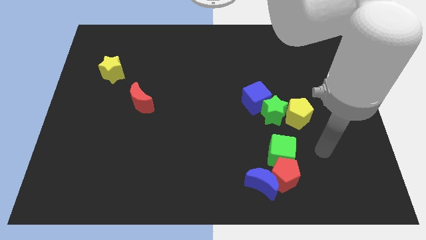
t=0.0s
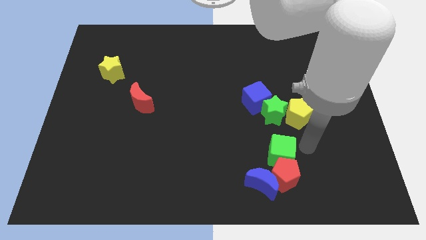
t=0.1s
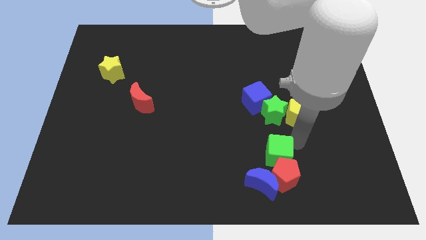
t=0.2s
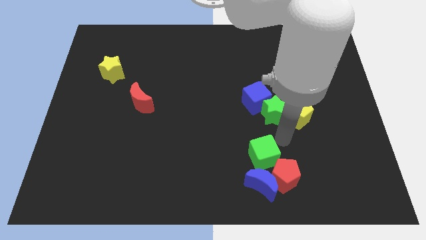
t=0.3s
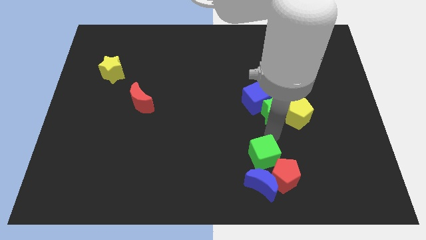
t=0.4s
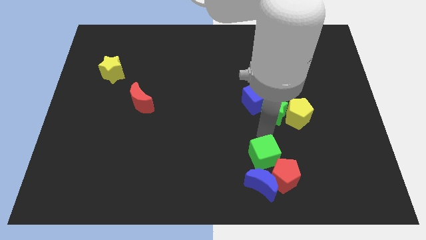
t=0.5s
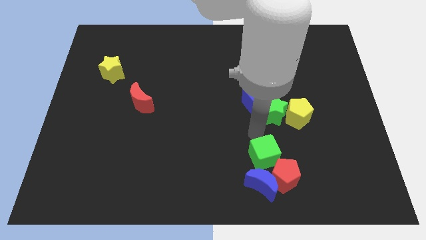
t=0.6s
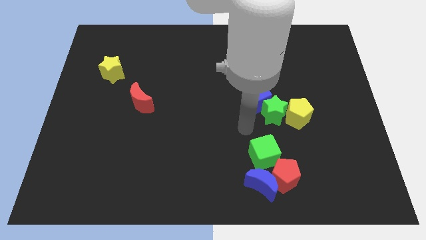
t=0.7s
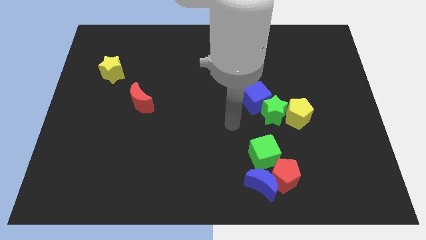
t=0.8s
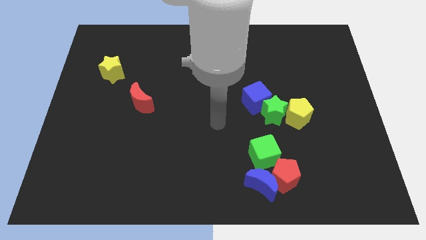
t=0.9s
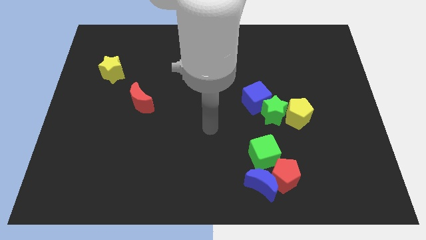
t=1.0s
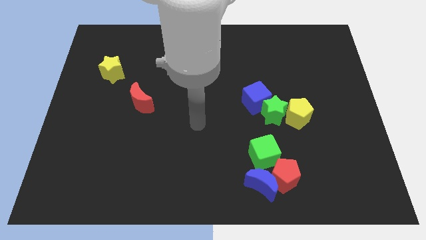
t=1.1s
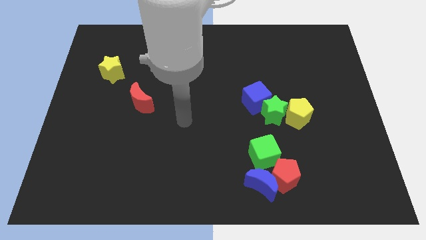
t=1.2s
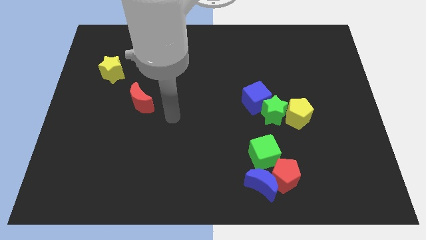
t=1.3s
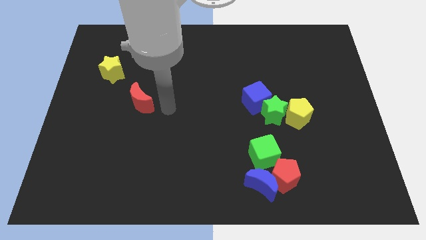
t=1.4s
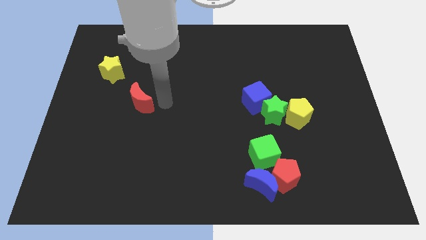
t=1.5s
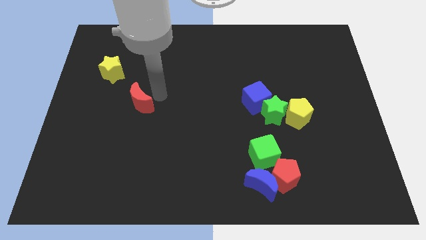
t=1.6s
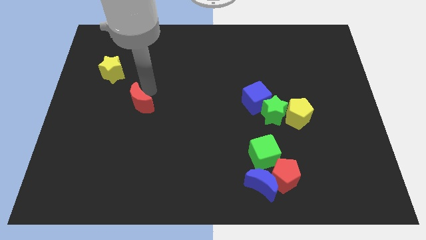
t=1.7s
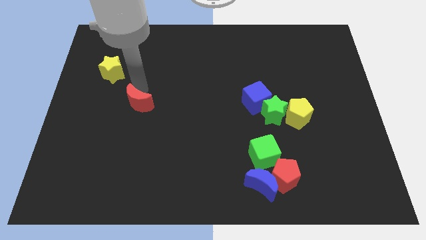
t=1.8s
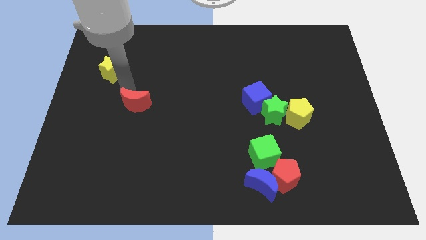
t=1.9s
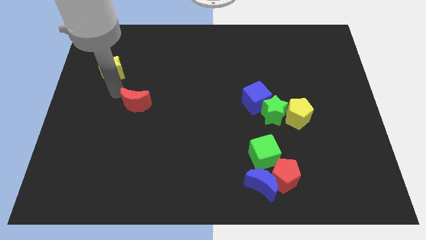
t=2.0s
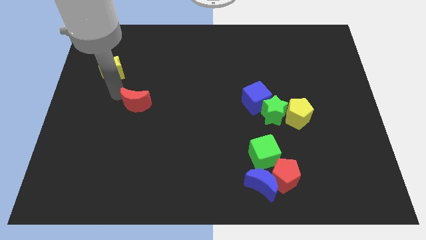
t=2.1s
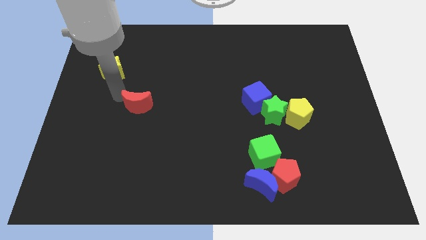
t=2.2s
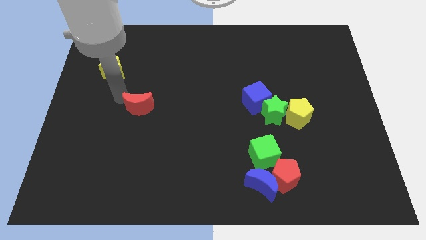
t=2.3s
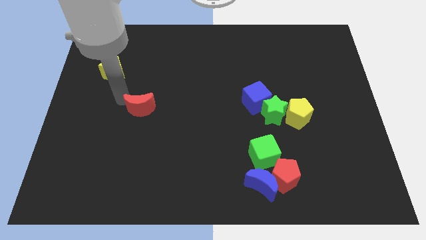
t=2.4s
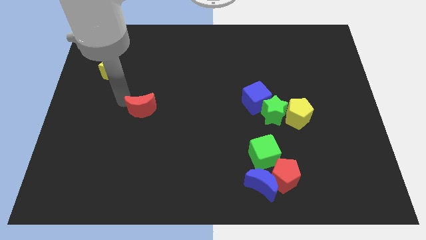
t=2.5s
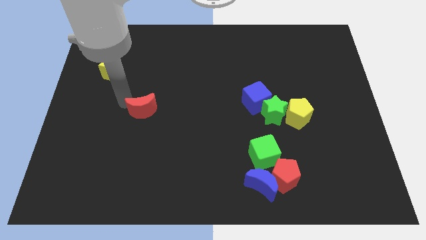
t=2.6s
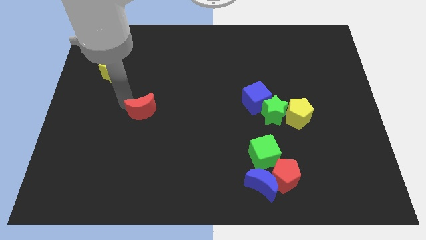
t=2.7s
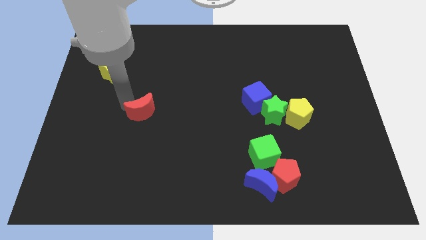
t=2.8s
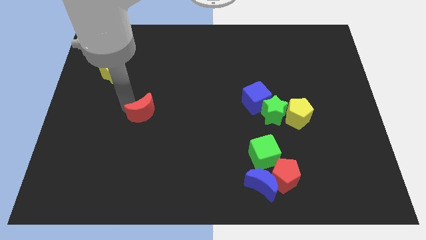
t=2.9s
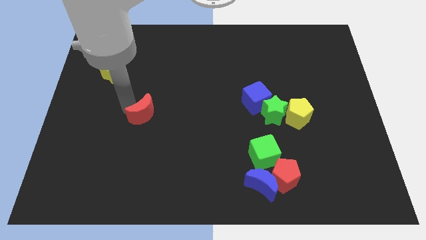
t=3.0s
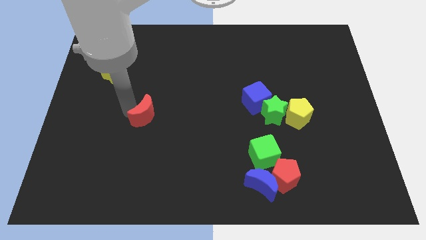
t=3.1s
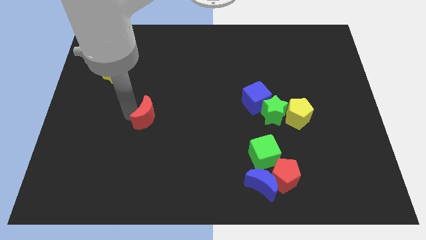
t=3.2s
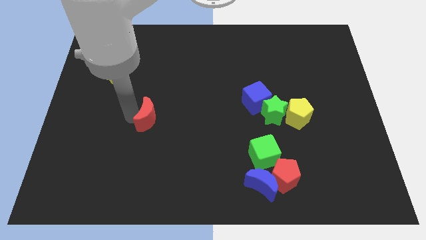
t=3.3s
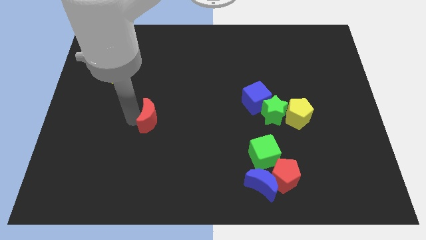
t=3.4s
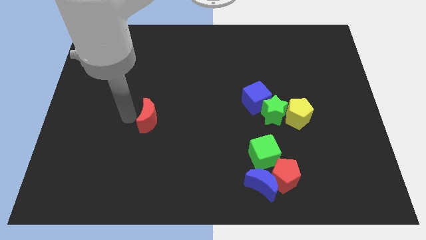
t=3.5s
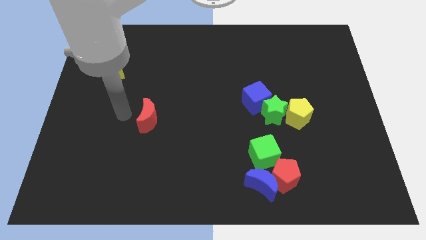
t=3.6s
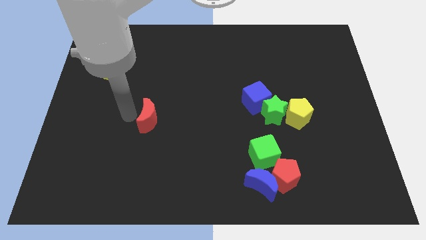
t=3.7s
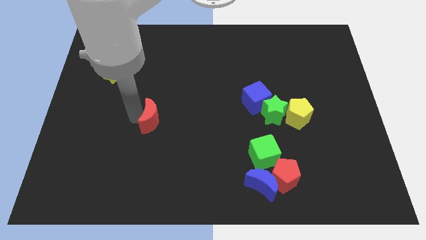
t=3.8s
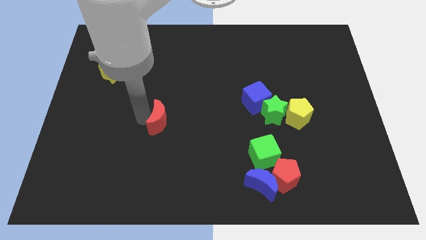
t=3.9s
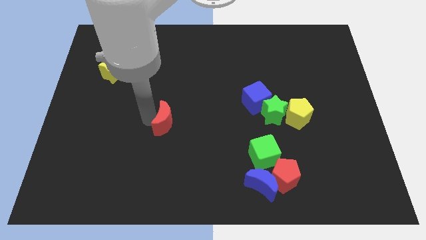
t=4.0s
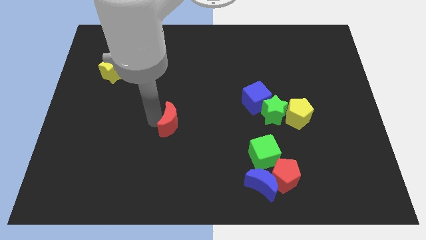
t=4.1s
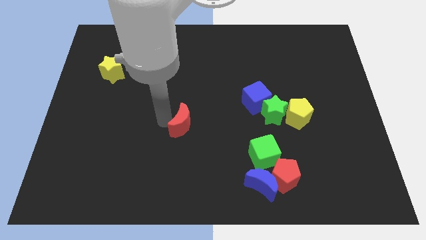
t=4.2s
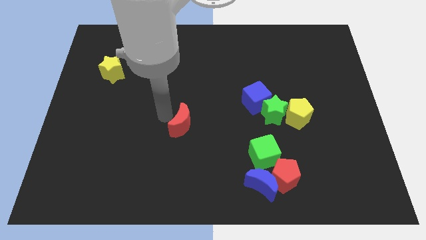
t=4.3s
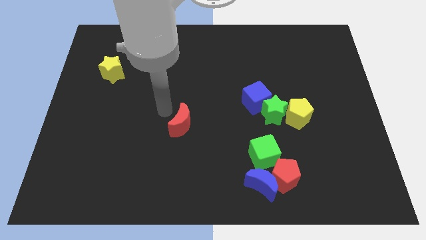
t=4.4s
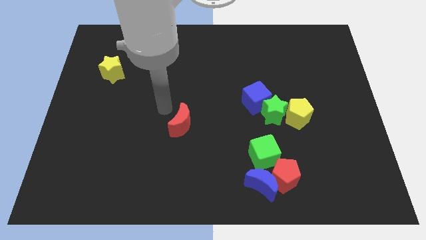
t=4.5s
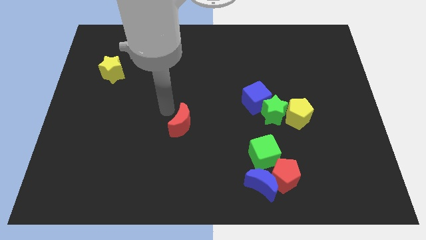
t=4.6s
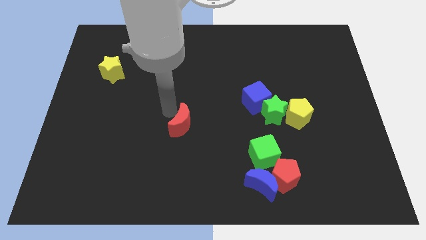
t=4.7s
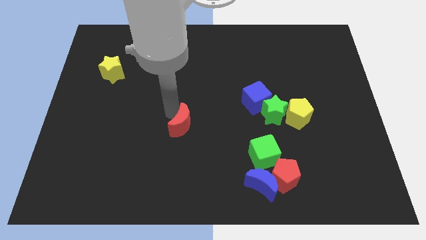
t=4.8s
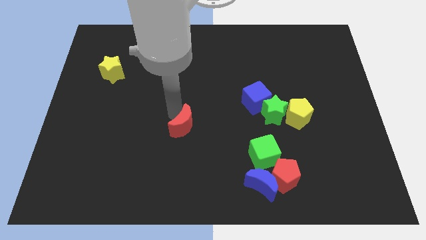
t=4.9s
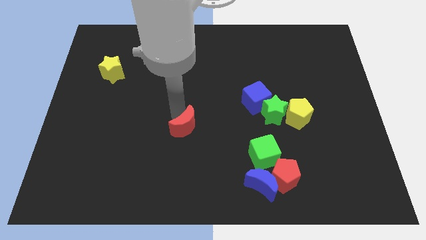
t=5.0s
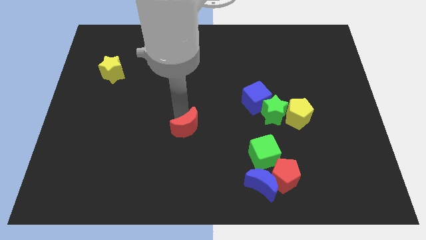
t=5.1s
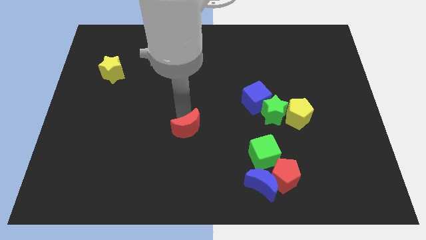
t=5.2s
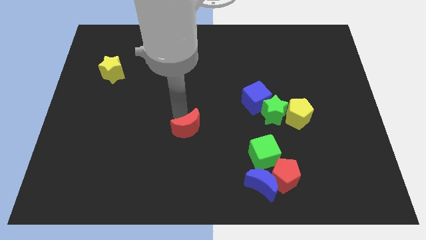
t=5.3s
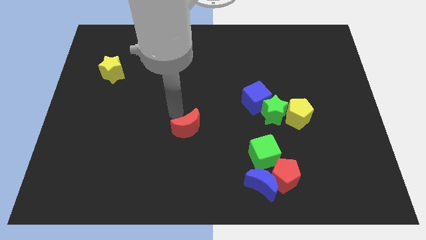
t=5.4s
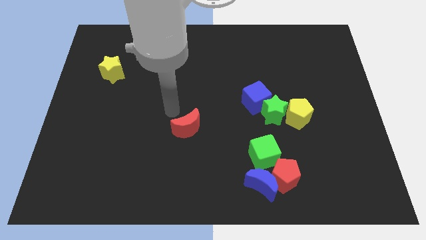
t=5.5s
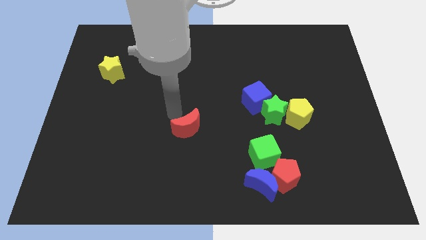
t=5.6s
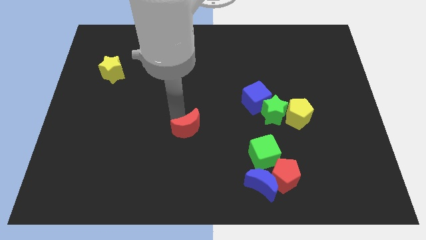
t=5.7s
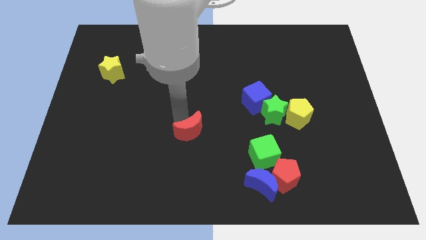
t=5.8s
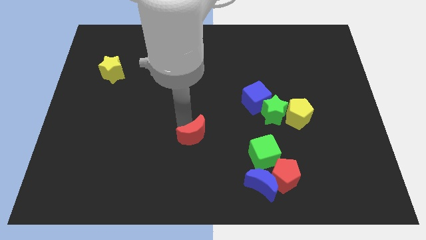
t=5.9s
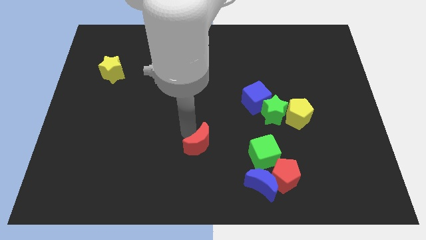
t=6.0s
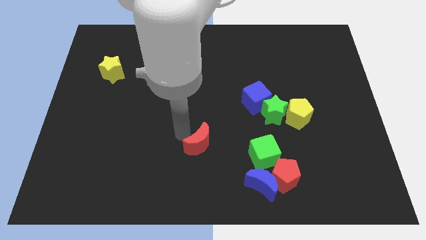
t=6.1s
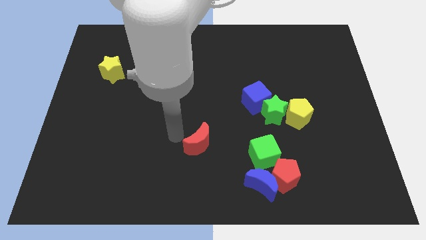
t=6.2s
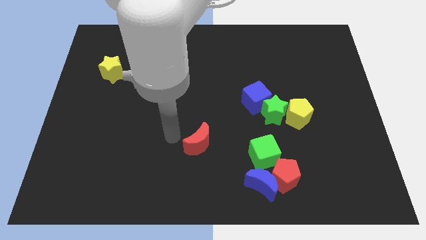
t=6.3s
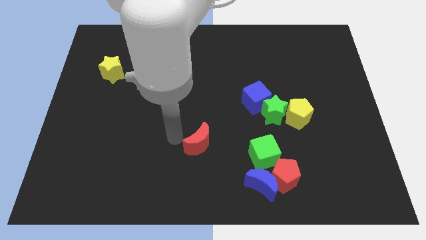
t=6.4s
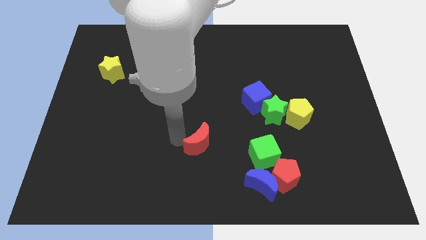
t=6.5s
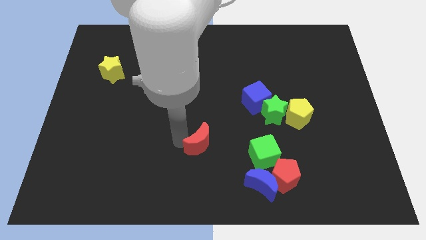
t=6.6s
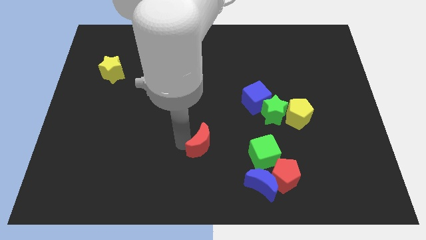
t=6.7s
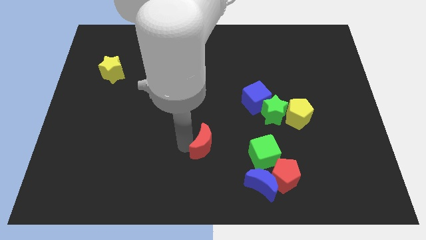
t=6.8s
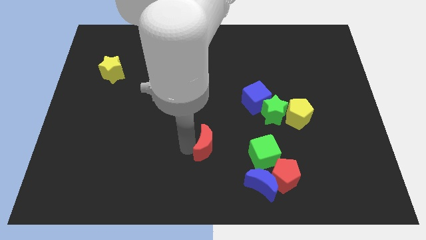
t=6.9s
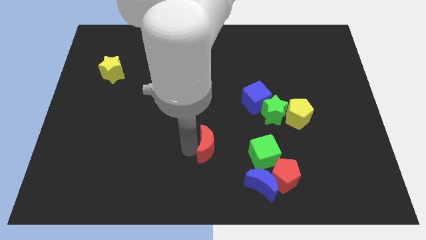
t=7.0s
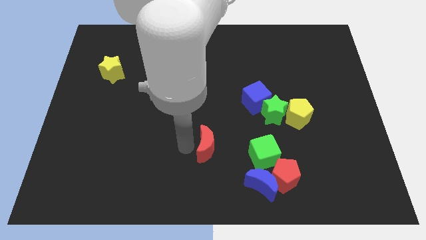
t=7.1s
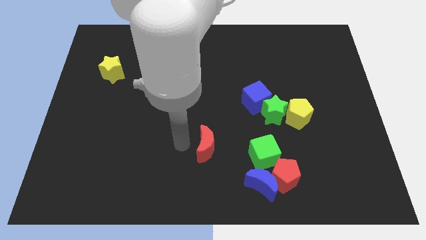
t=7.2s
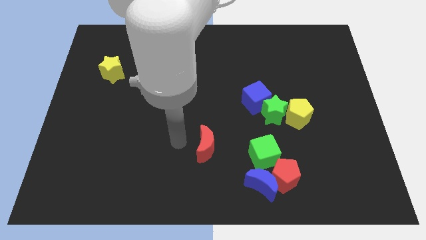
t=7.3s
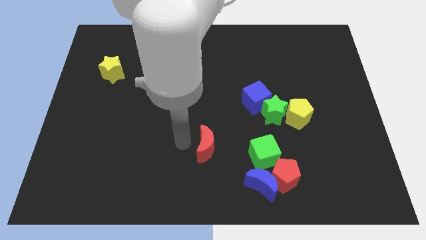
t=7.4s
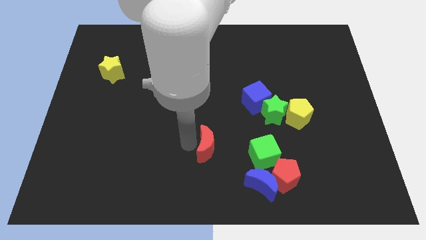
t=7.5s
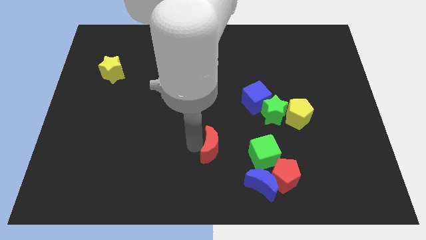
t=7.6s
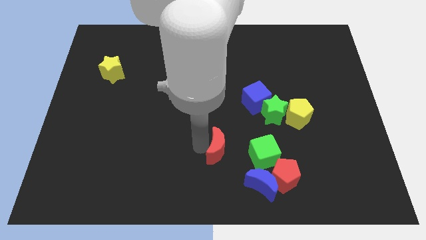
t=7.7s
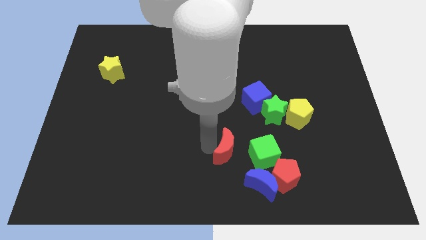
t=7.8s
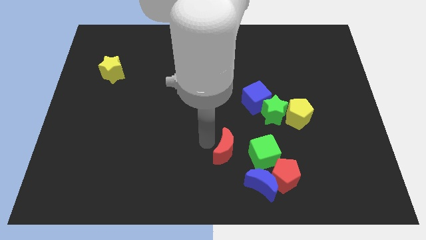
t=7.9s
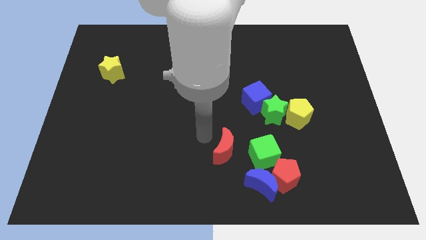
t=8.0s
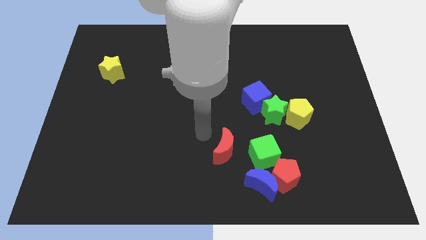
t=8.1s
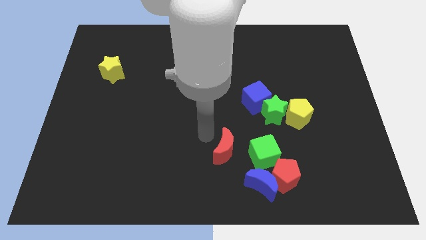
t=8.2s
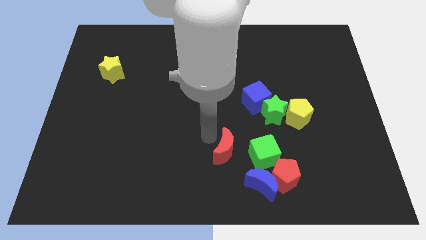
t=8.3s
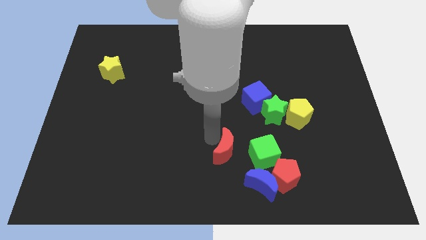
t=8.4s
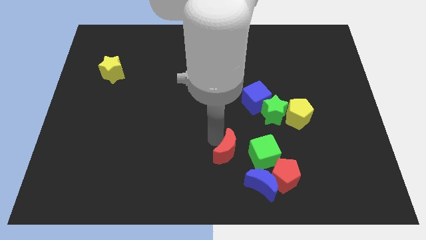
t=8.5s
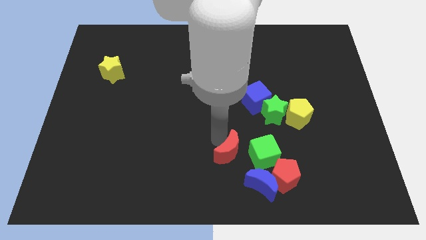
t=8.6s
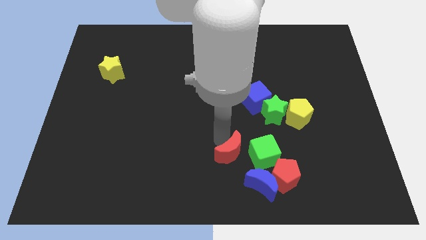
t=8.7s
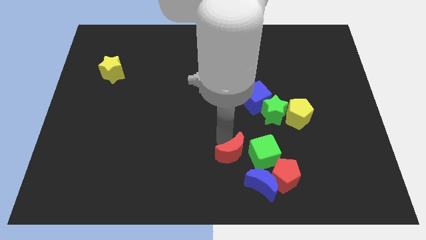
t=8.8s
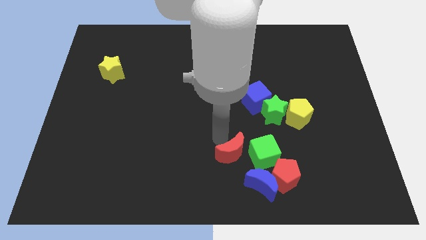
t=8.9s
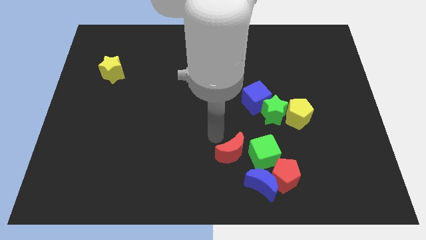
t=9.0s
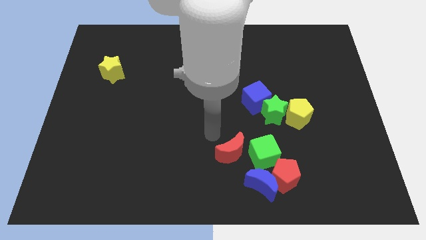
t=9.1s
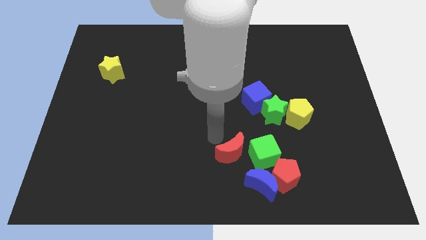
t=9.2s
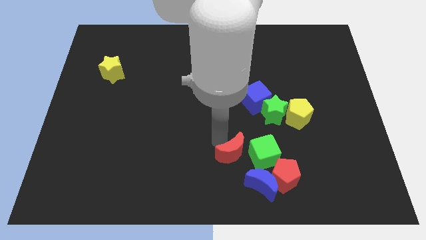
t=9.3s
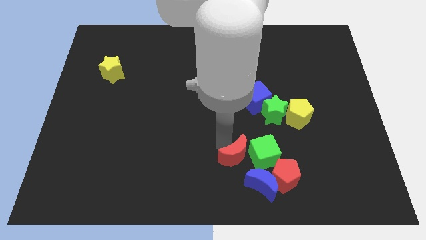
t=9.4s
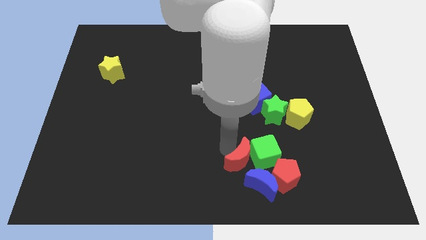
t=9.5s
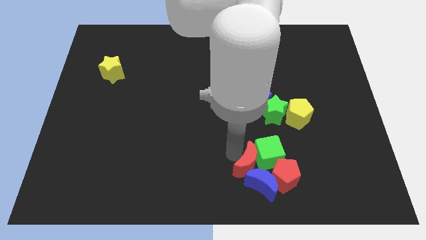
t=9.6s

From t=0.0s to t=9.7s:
put the red moon towards the blue moon
